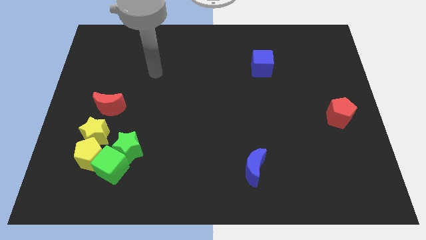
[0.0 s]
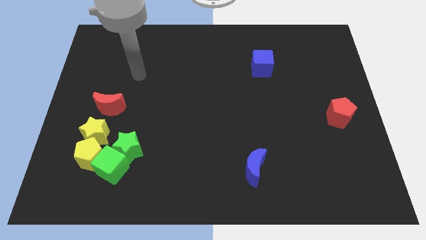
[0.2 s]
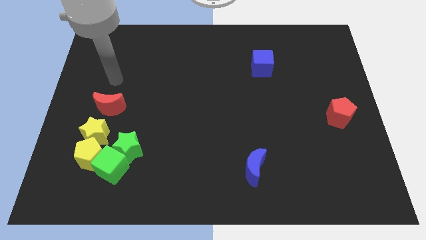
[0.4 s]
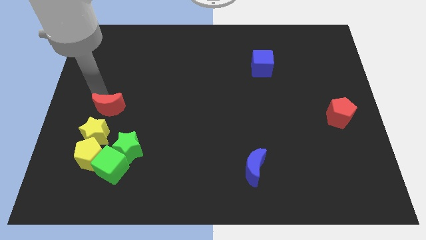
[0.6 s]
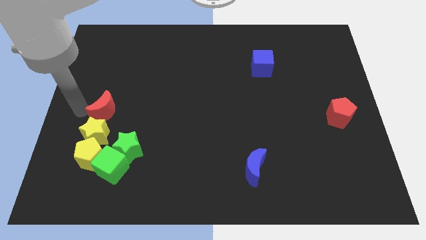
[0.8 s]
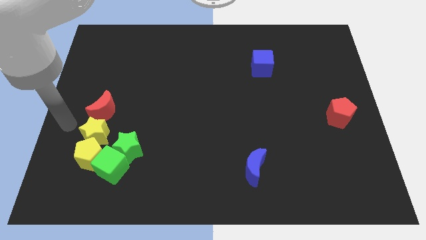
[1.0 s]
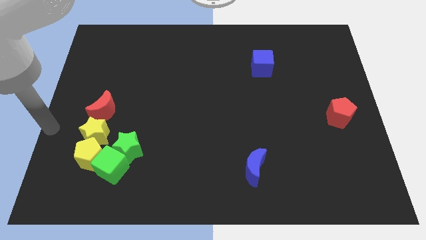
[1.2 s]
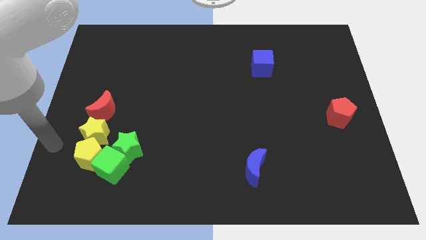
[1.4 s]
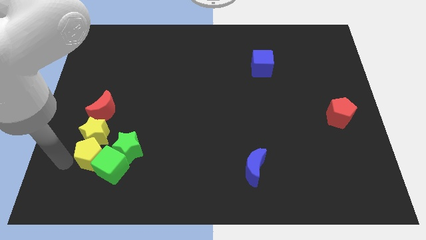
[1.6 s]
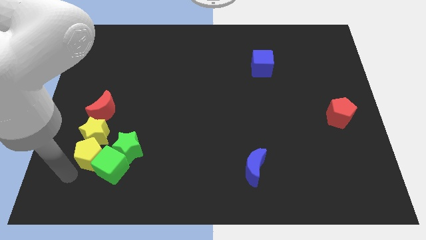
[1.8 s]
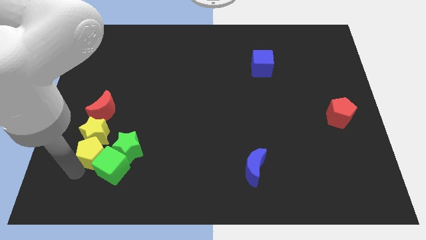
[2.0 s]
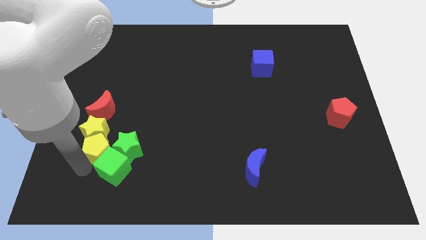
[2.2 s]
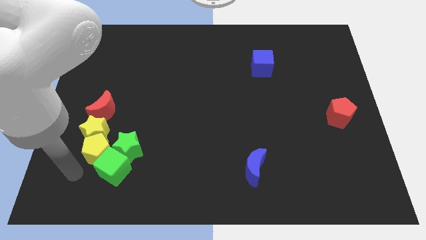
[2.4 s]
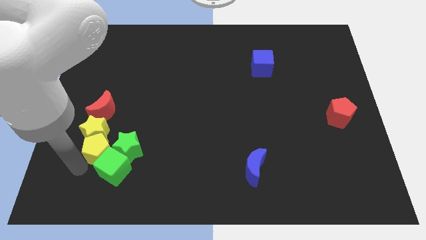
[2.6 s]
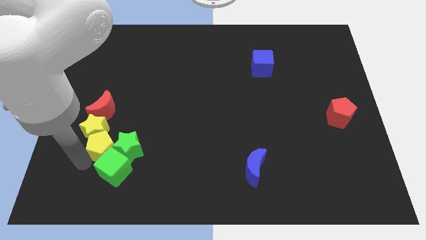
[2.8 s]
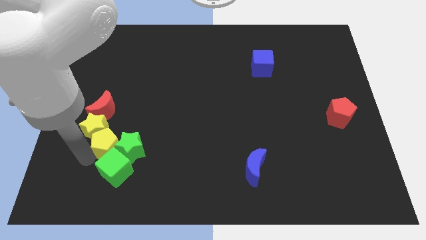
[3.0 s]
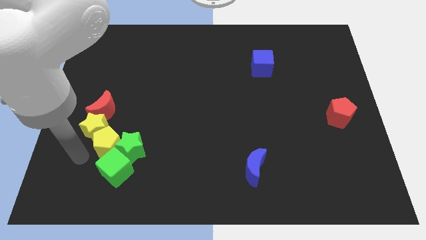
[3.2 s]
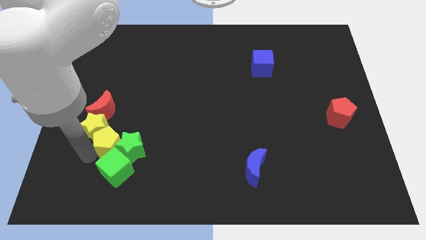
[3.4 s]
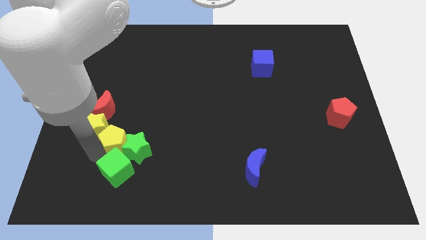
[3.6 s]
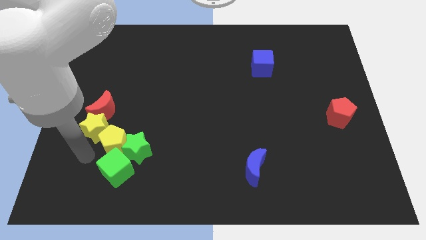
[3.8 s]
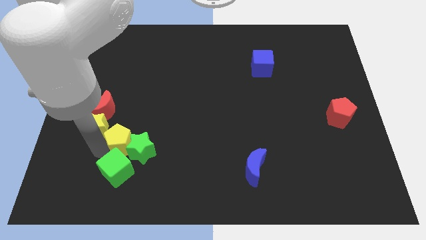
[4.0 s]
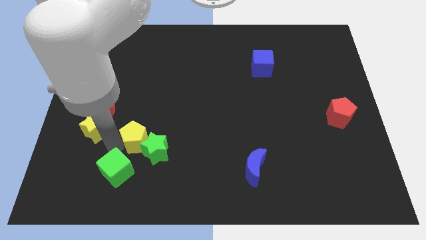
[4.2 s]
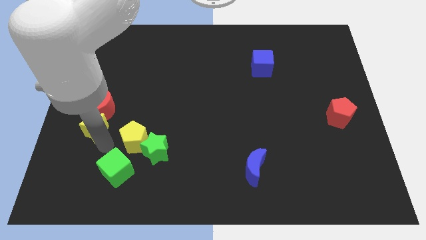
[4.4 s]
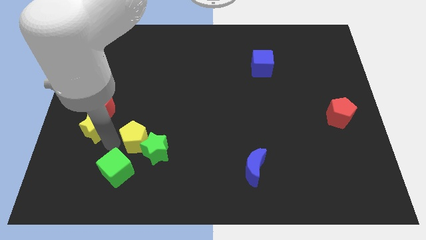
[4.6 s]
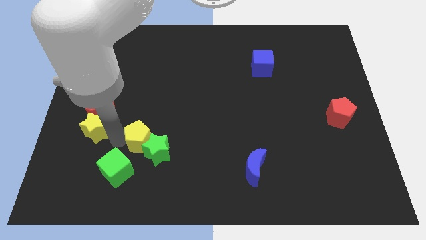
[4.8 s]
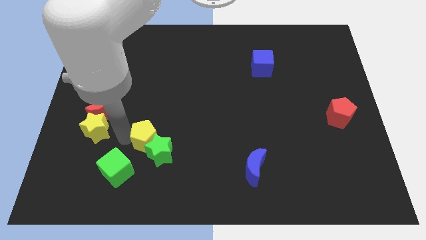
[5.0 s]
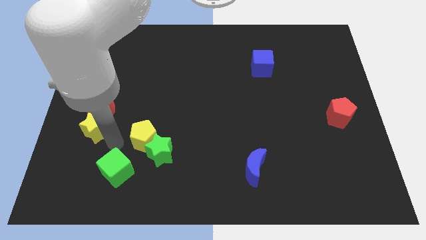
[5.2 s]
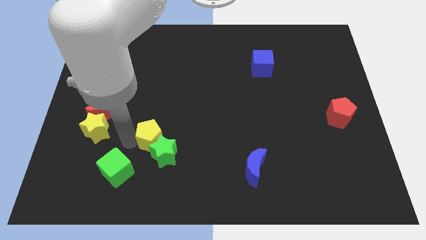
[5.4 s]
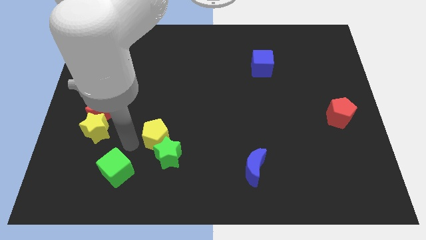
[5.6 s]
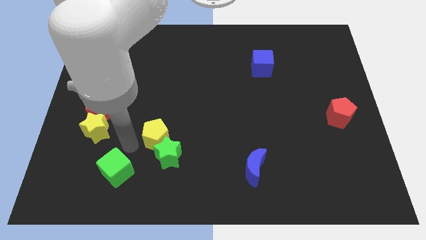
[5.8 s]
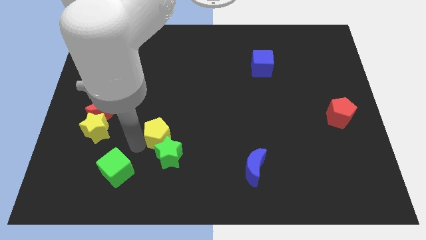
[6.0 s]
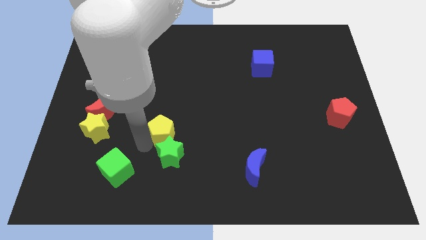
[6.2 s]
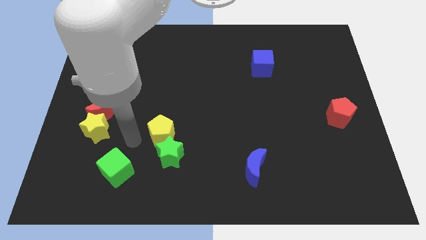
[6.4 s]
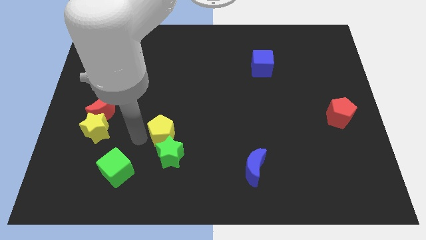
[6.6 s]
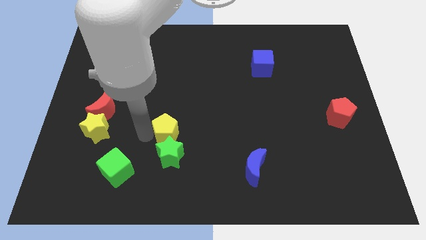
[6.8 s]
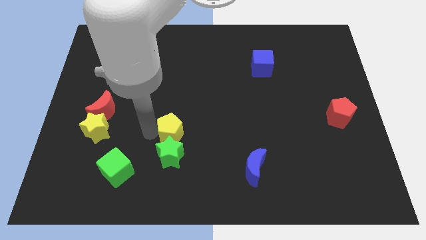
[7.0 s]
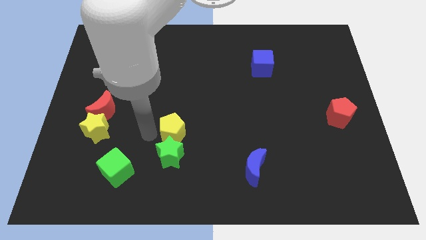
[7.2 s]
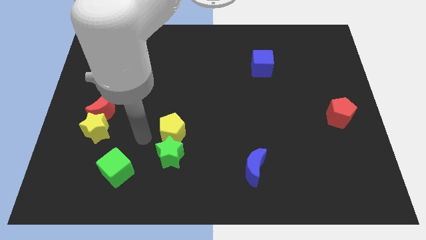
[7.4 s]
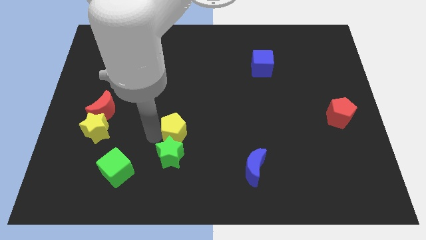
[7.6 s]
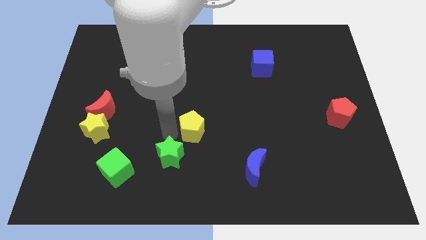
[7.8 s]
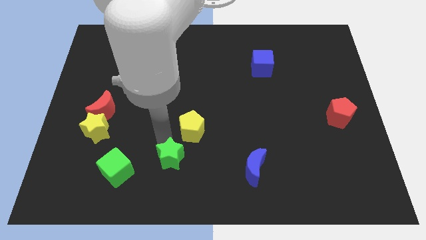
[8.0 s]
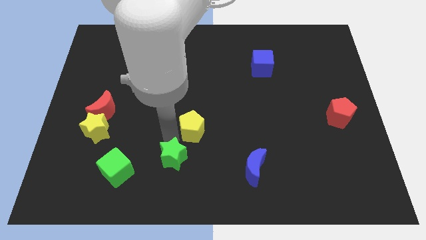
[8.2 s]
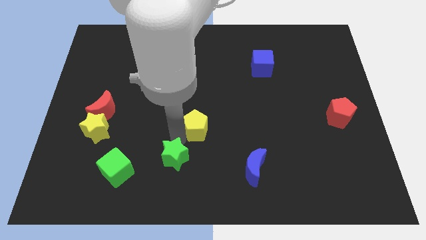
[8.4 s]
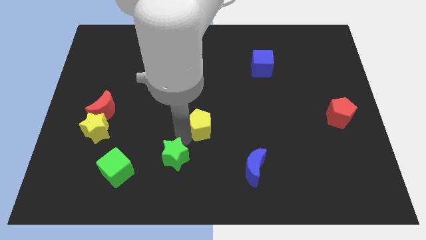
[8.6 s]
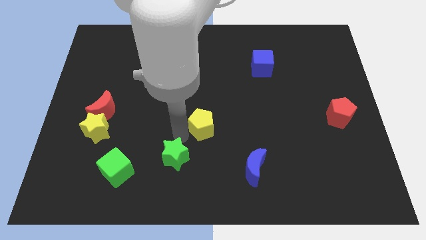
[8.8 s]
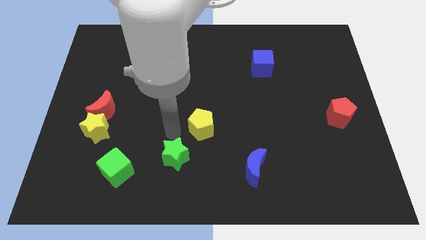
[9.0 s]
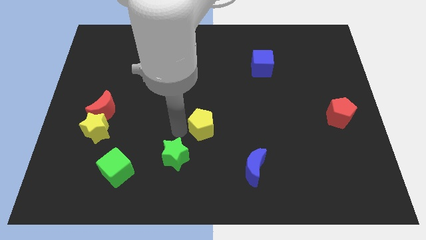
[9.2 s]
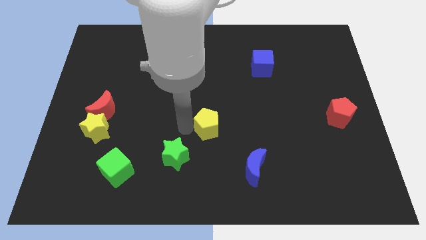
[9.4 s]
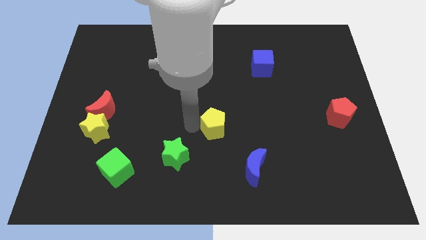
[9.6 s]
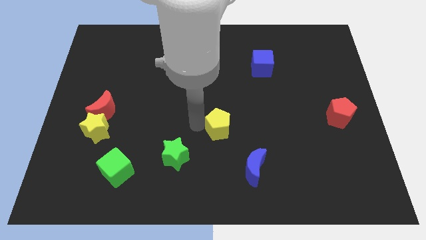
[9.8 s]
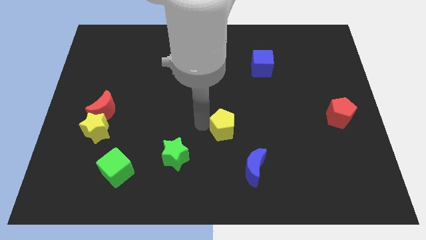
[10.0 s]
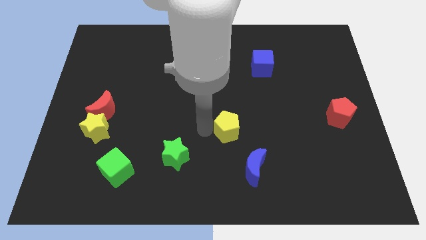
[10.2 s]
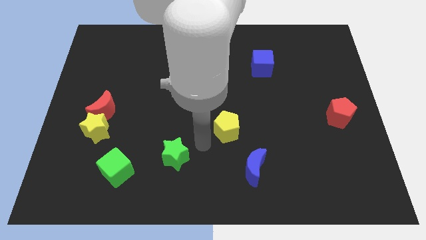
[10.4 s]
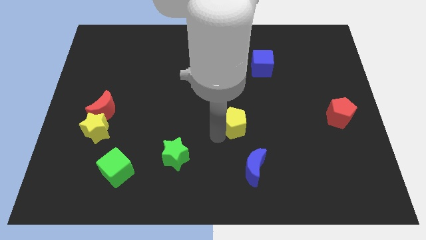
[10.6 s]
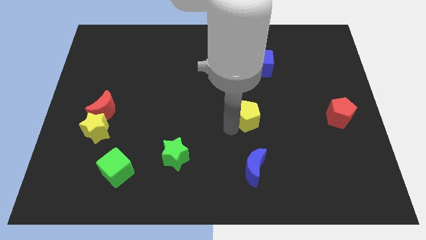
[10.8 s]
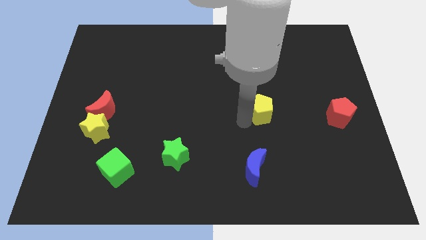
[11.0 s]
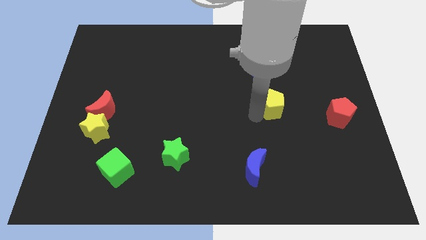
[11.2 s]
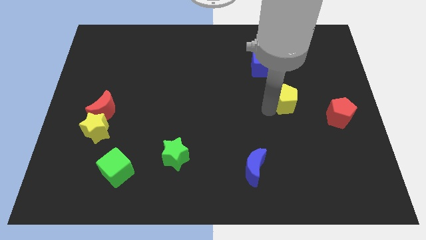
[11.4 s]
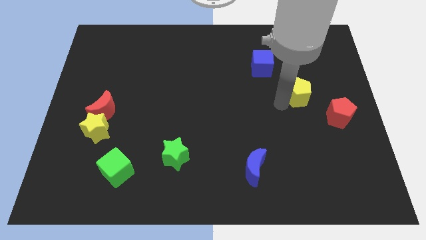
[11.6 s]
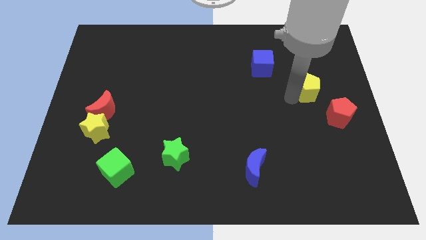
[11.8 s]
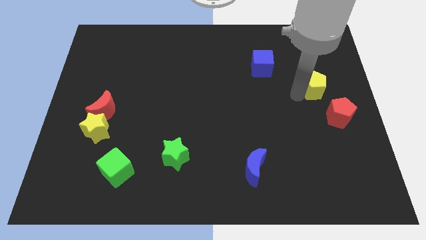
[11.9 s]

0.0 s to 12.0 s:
push the yellow pentagon to the top of the red pentagon

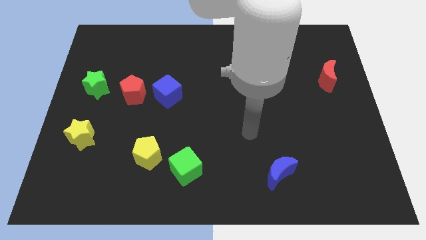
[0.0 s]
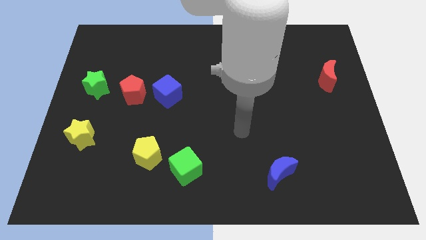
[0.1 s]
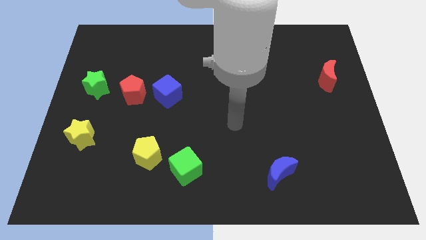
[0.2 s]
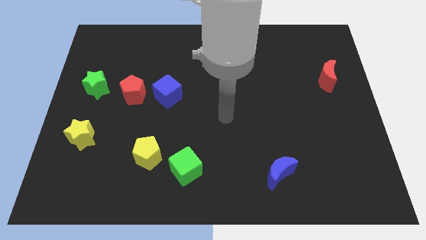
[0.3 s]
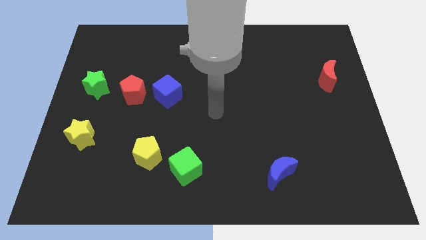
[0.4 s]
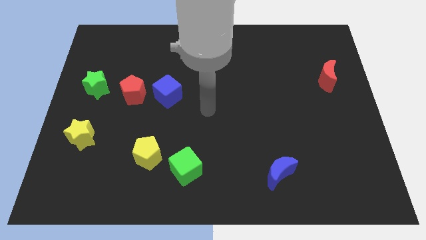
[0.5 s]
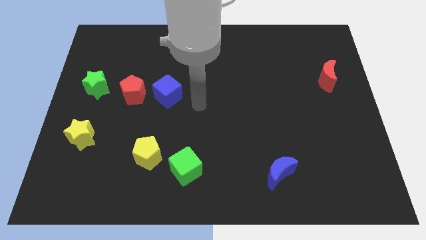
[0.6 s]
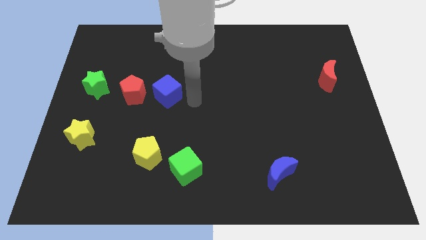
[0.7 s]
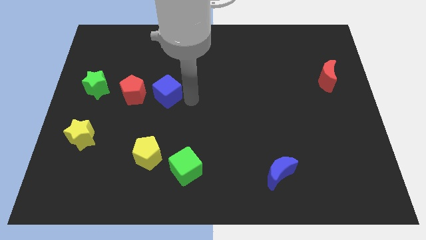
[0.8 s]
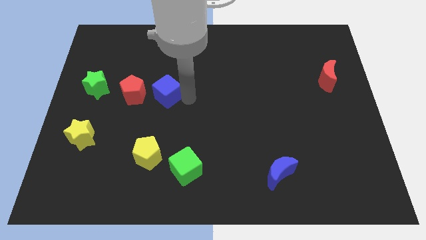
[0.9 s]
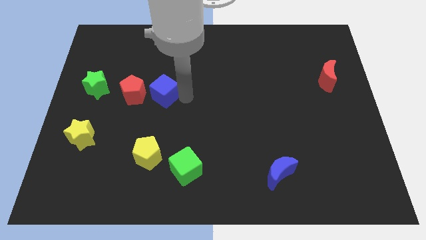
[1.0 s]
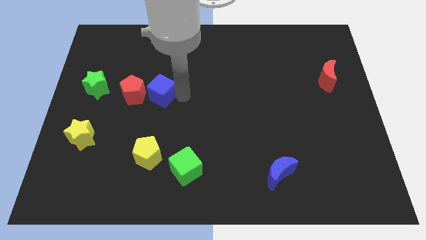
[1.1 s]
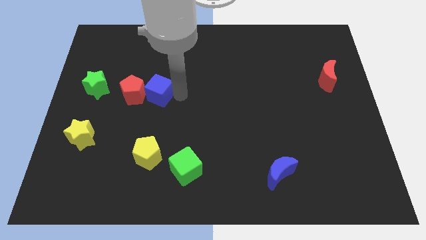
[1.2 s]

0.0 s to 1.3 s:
put the blue cube just right of the green star
